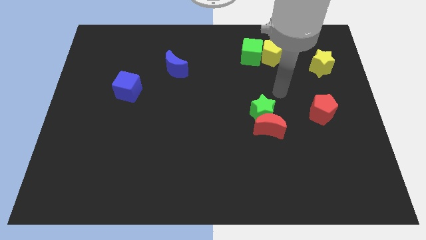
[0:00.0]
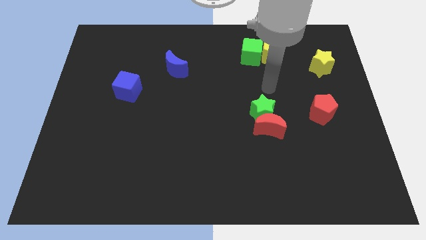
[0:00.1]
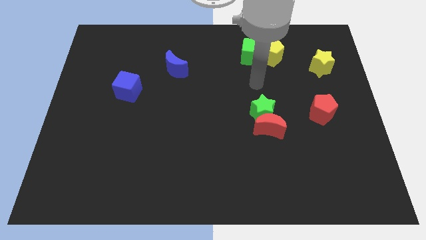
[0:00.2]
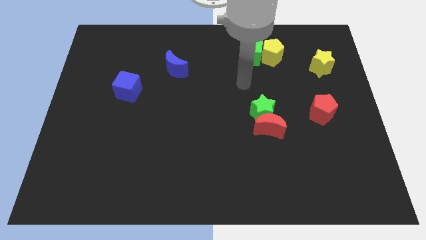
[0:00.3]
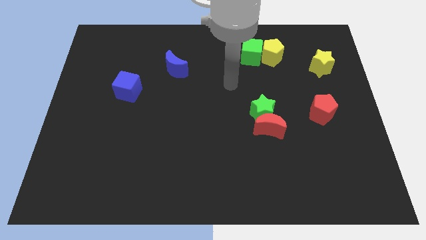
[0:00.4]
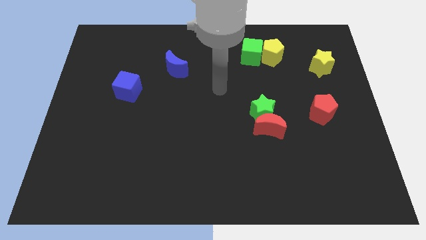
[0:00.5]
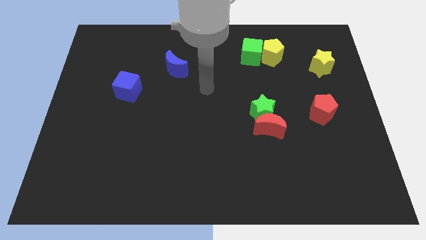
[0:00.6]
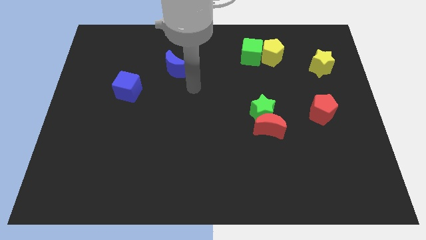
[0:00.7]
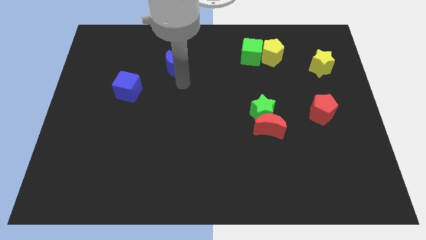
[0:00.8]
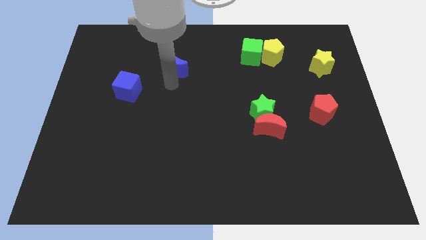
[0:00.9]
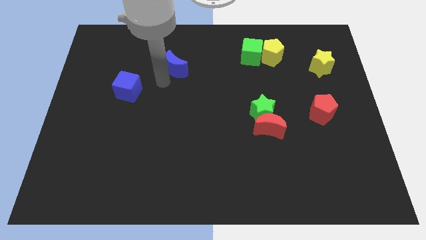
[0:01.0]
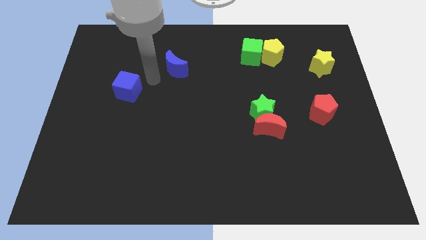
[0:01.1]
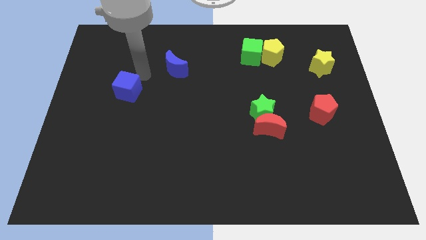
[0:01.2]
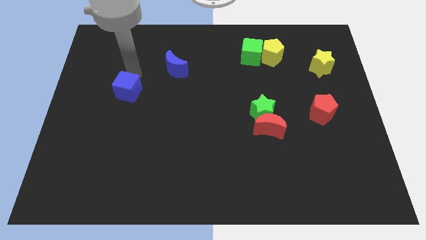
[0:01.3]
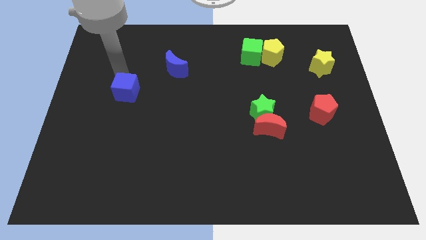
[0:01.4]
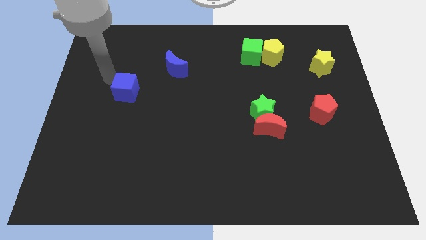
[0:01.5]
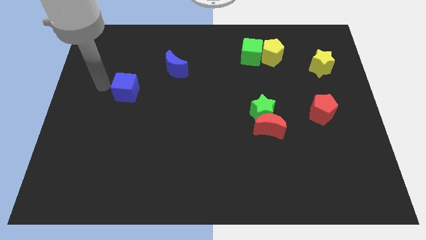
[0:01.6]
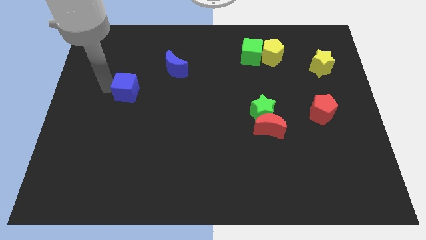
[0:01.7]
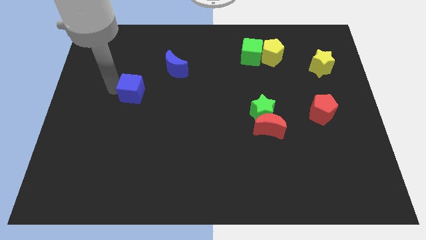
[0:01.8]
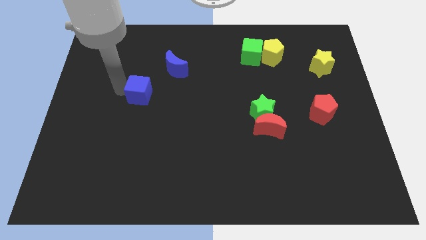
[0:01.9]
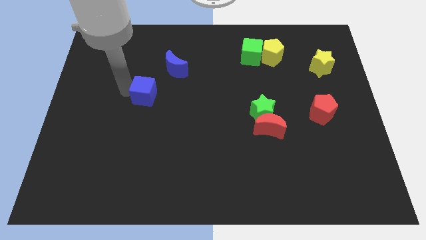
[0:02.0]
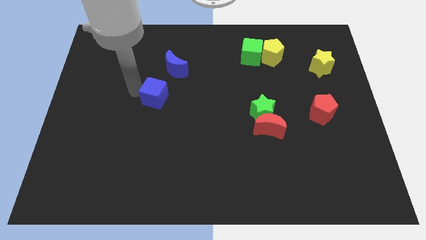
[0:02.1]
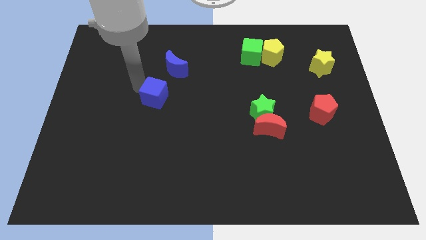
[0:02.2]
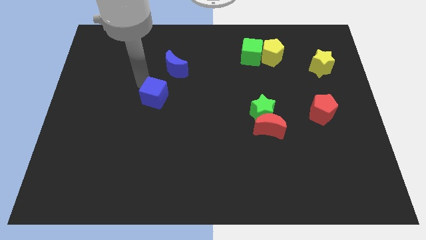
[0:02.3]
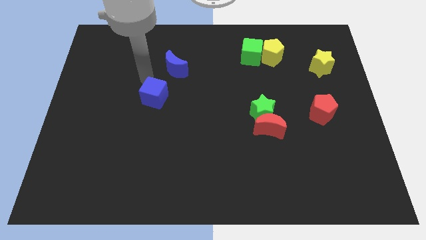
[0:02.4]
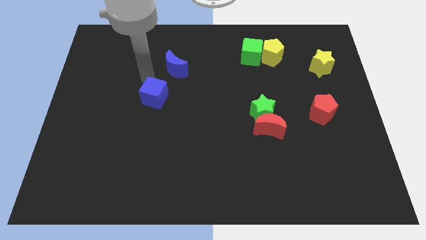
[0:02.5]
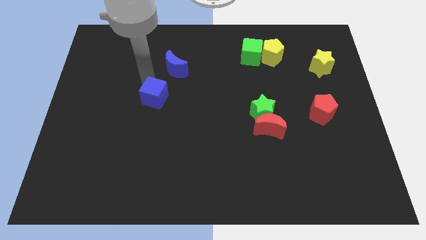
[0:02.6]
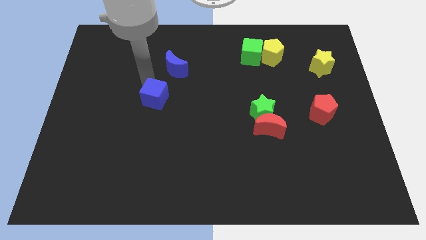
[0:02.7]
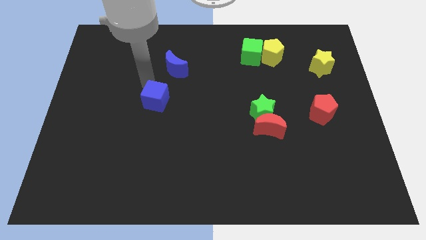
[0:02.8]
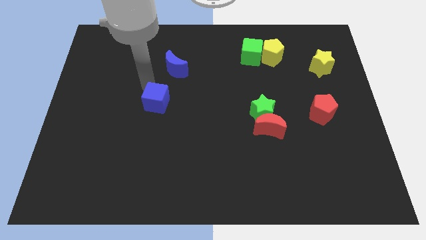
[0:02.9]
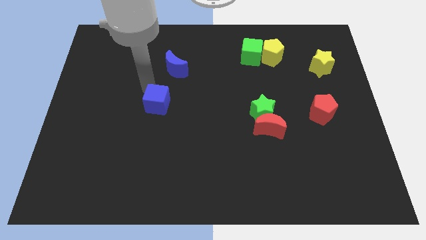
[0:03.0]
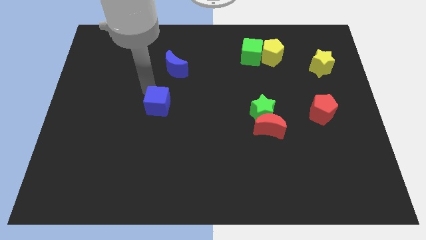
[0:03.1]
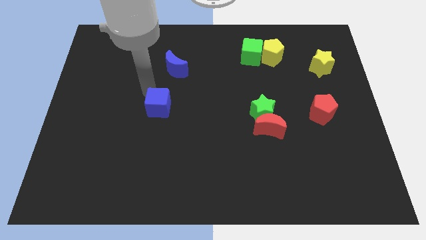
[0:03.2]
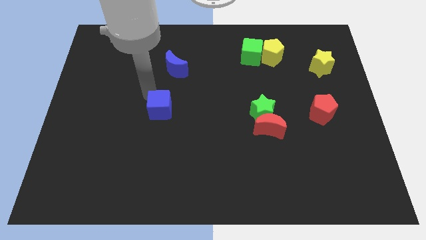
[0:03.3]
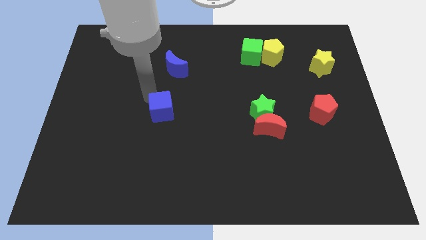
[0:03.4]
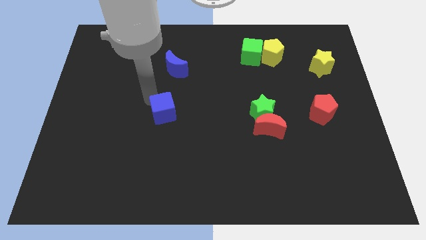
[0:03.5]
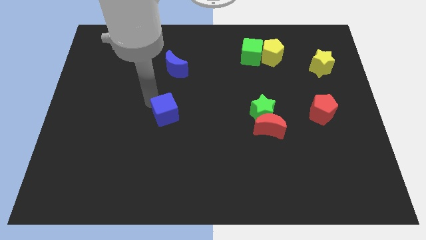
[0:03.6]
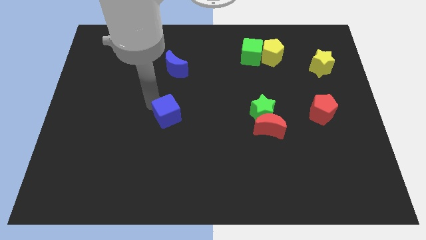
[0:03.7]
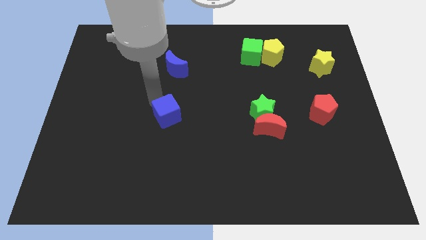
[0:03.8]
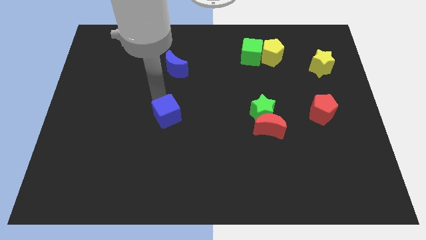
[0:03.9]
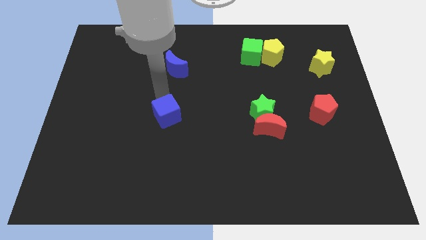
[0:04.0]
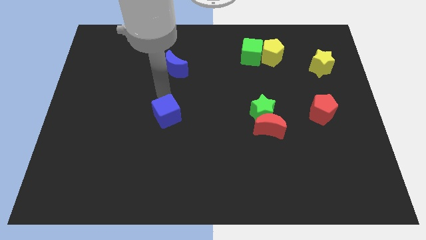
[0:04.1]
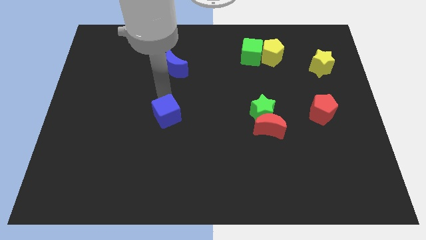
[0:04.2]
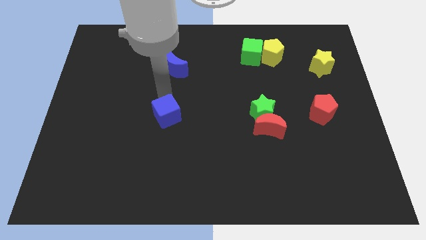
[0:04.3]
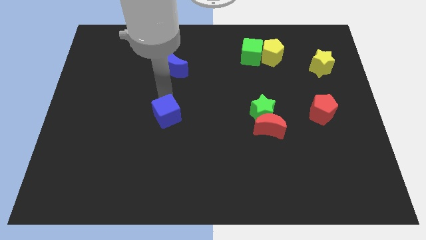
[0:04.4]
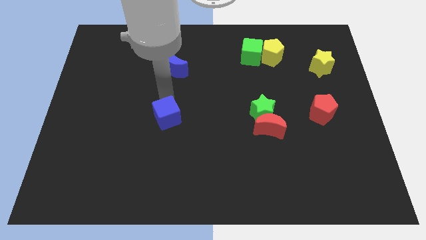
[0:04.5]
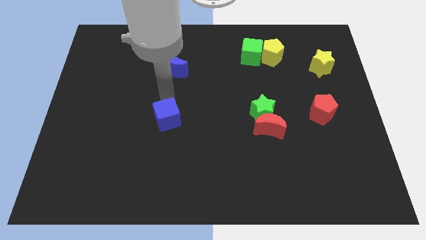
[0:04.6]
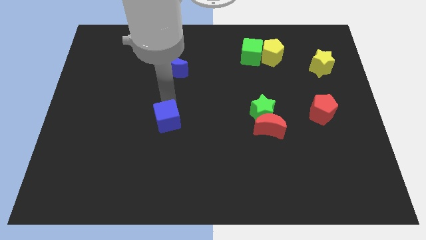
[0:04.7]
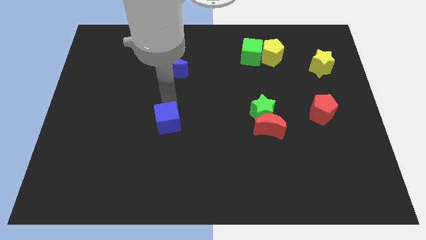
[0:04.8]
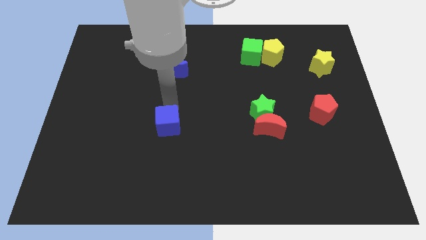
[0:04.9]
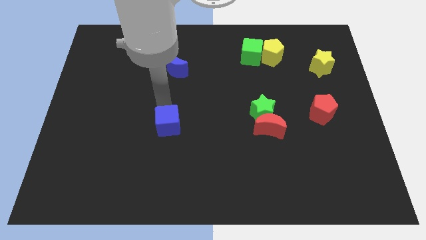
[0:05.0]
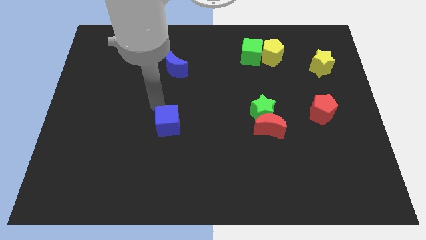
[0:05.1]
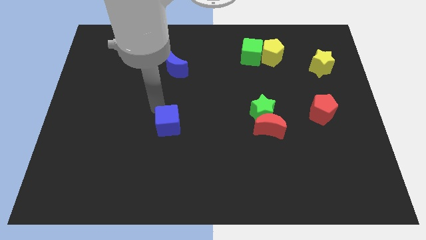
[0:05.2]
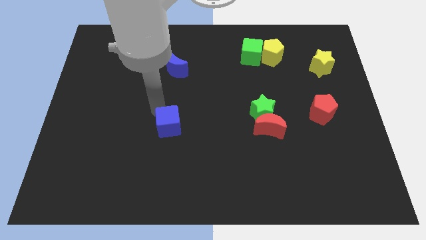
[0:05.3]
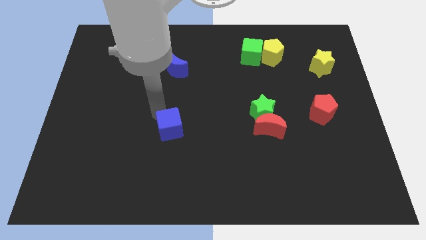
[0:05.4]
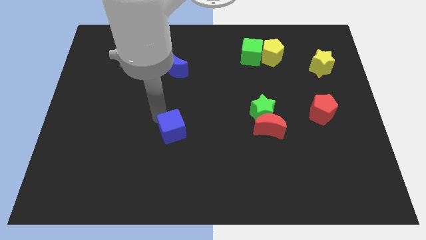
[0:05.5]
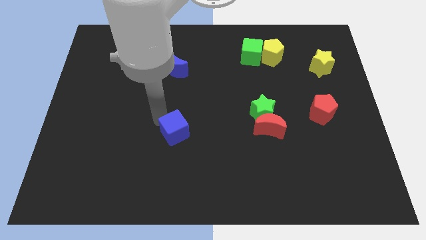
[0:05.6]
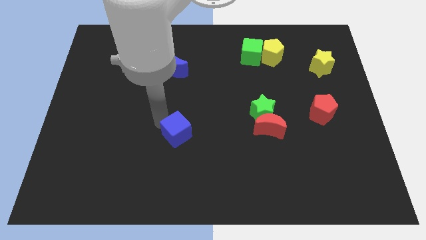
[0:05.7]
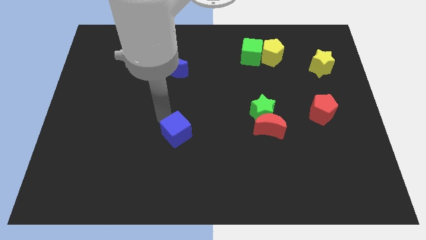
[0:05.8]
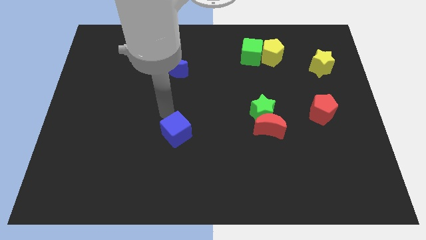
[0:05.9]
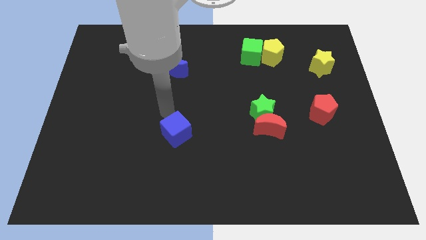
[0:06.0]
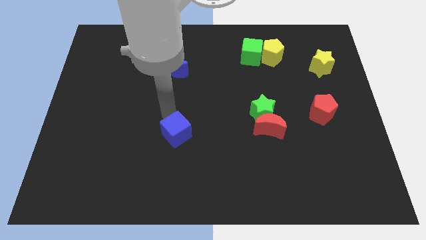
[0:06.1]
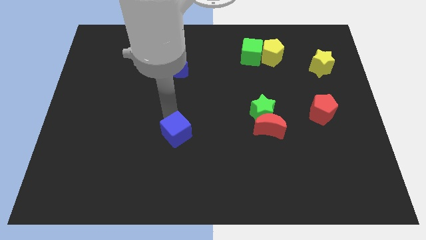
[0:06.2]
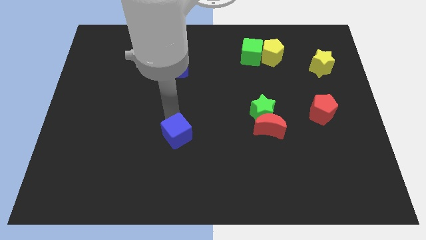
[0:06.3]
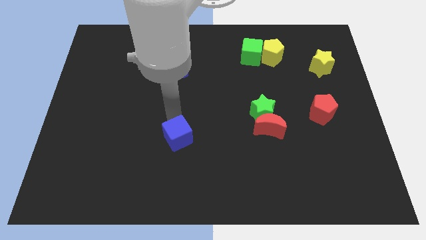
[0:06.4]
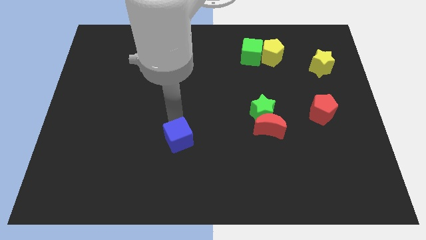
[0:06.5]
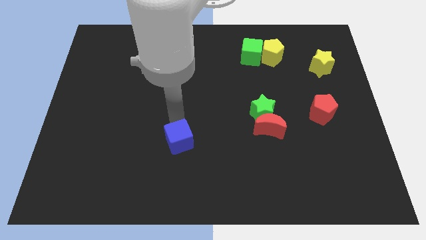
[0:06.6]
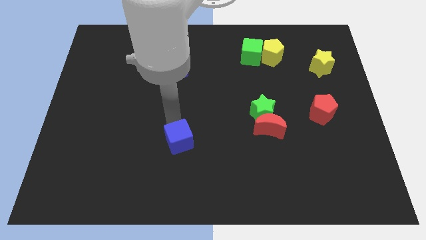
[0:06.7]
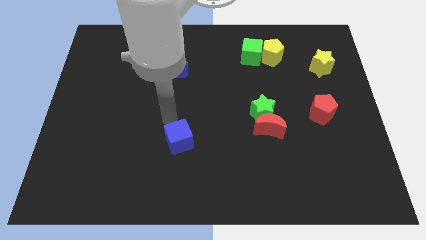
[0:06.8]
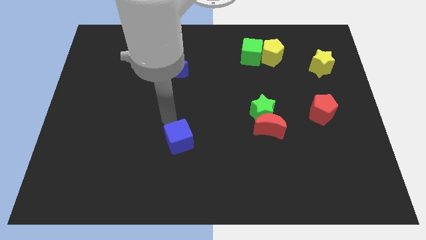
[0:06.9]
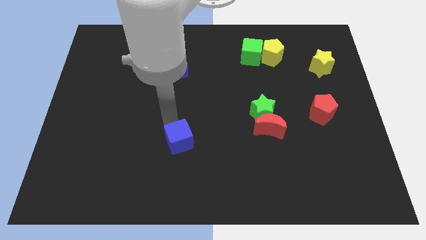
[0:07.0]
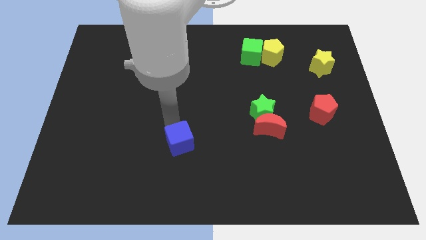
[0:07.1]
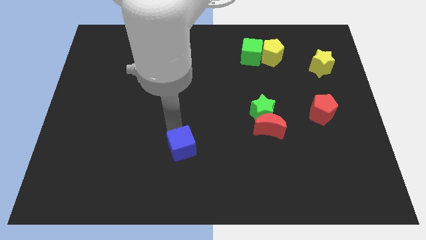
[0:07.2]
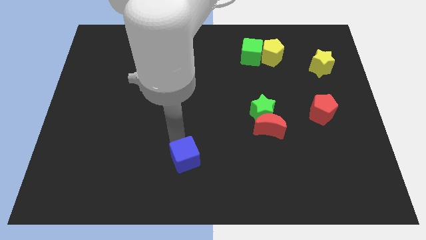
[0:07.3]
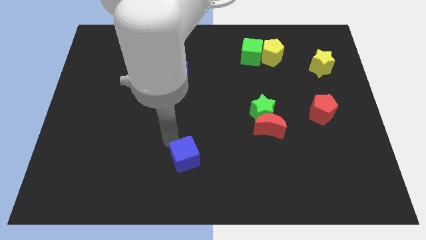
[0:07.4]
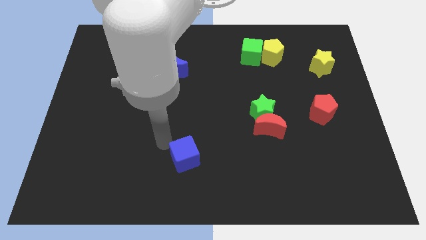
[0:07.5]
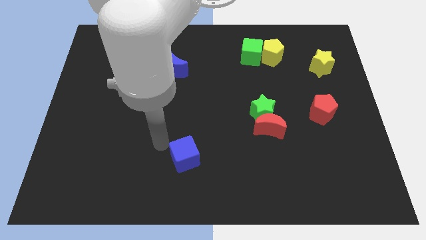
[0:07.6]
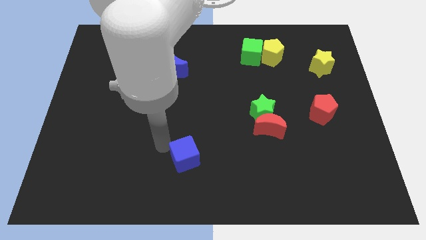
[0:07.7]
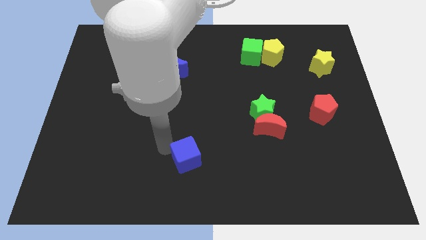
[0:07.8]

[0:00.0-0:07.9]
move the blue cube to the bottom
